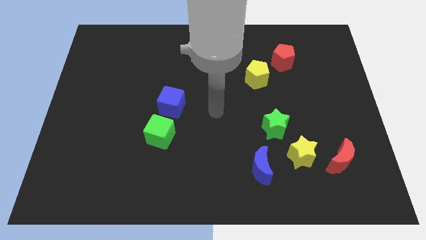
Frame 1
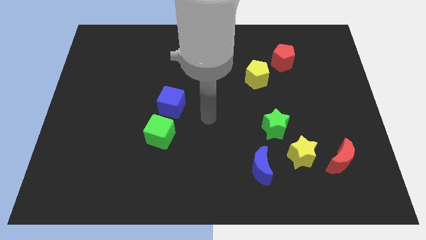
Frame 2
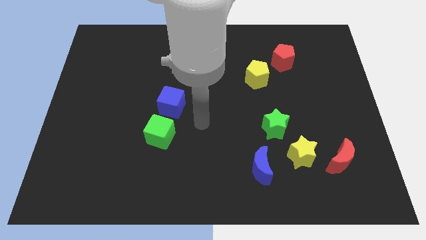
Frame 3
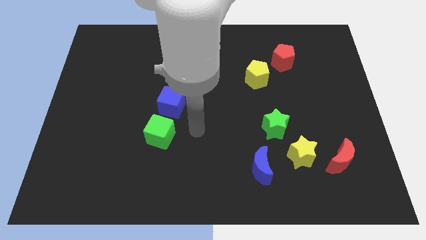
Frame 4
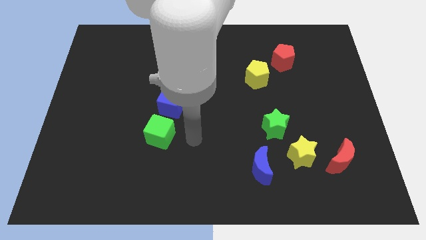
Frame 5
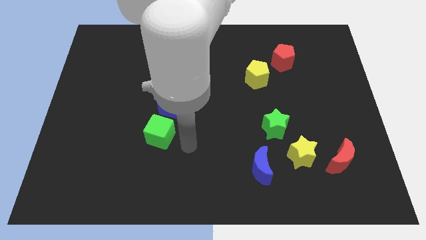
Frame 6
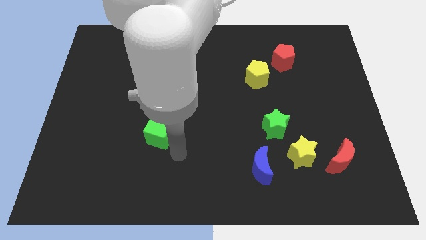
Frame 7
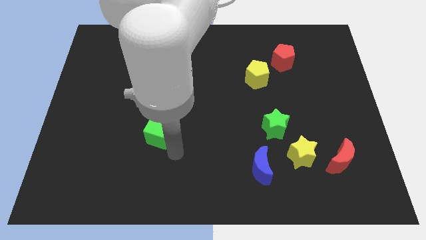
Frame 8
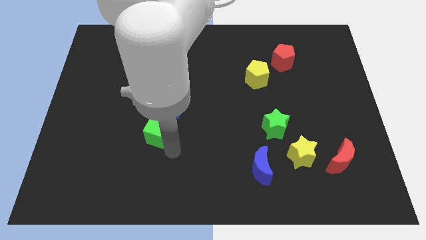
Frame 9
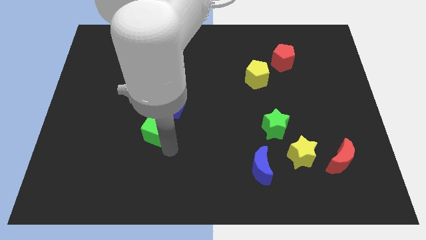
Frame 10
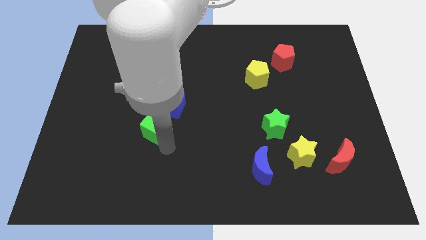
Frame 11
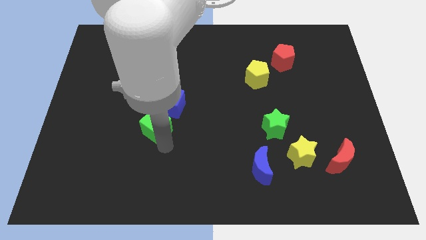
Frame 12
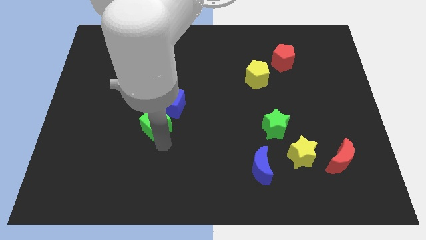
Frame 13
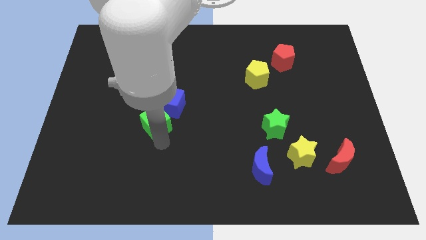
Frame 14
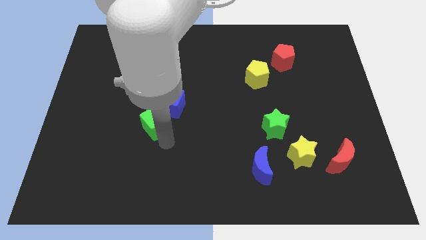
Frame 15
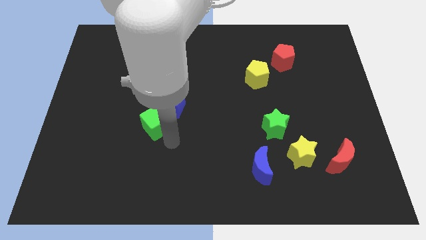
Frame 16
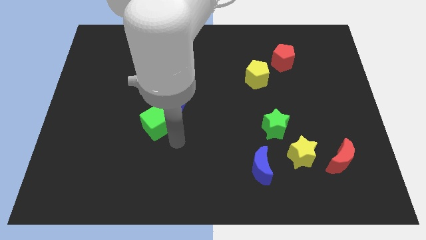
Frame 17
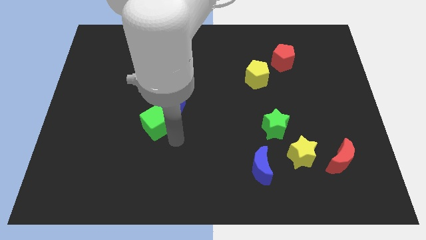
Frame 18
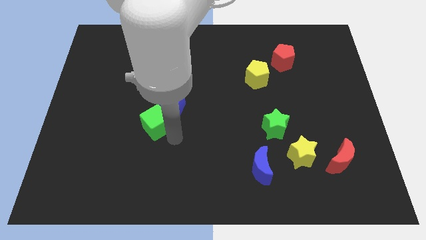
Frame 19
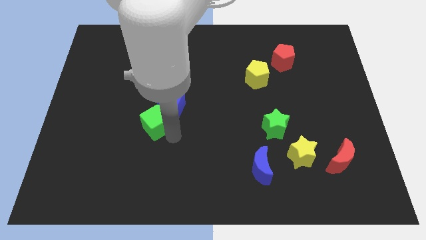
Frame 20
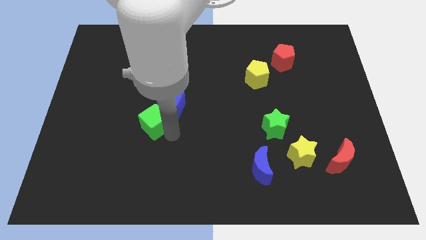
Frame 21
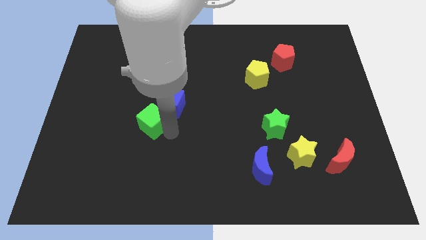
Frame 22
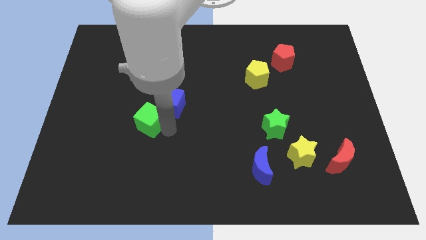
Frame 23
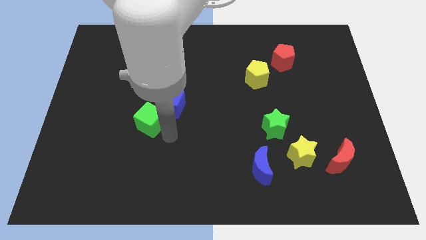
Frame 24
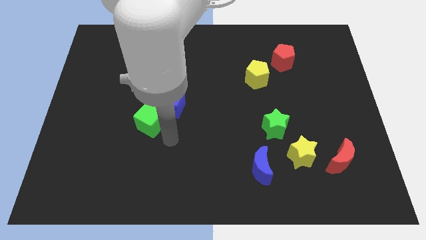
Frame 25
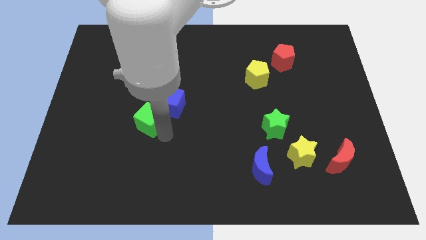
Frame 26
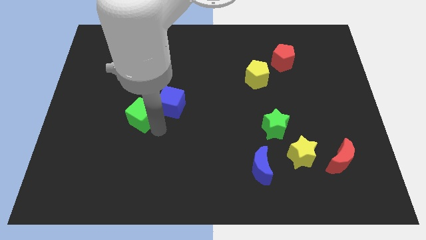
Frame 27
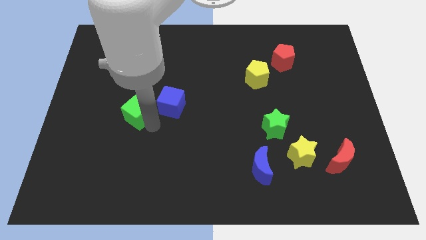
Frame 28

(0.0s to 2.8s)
slightly slide the green cube upwards and left

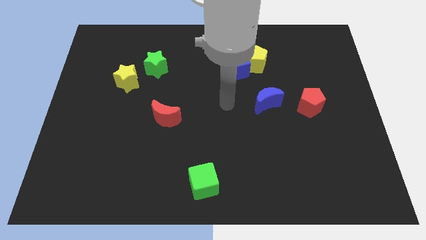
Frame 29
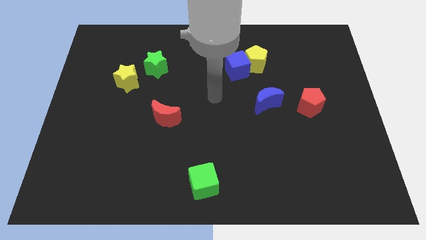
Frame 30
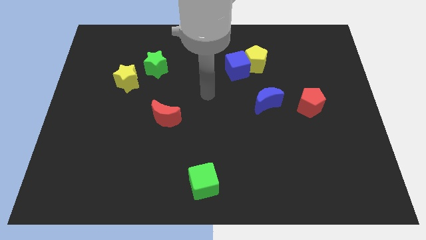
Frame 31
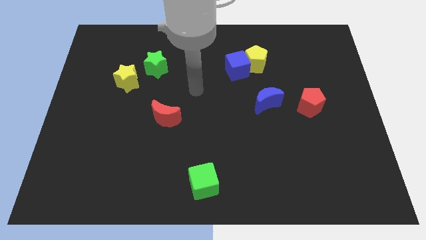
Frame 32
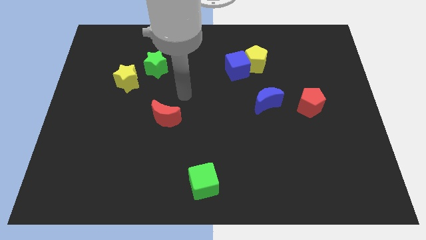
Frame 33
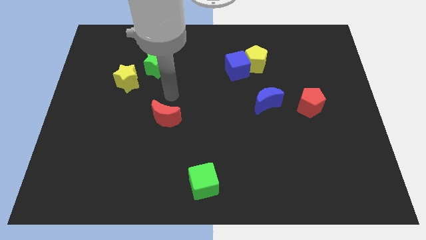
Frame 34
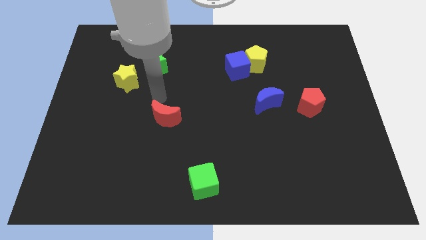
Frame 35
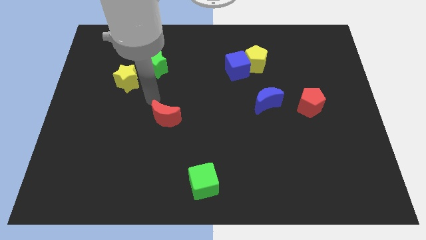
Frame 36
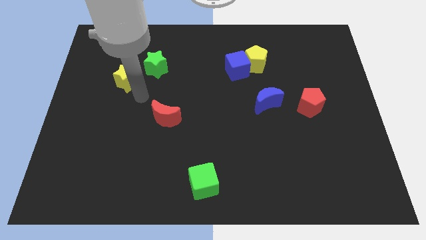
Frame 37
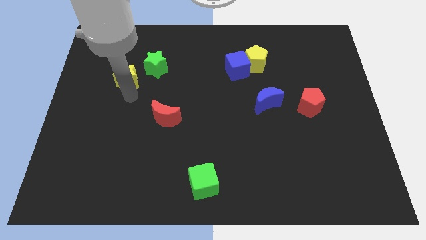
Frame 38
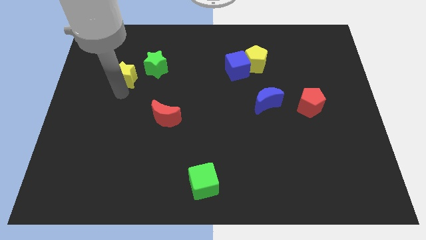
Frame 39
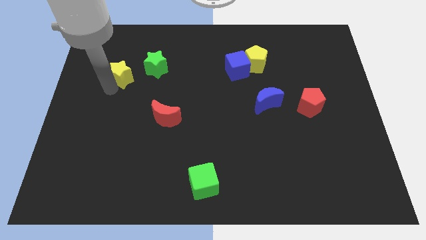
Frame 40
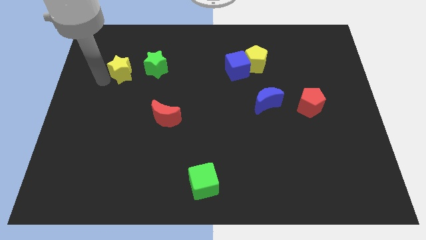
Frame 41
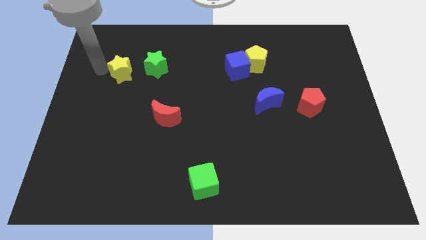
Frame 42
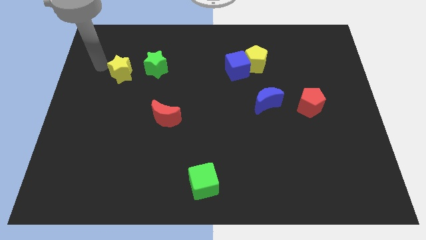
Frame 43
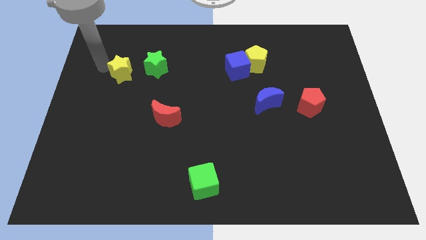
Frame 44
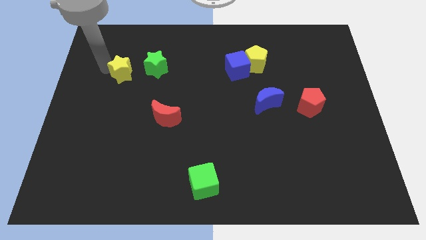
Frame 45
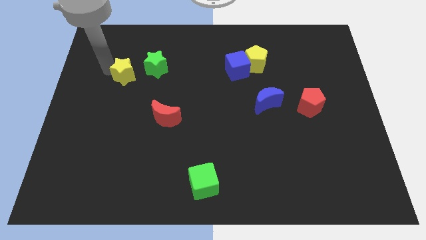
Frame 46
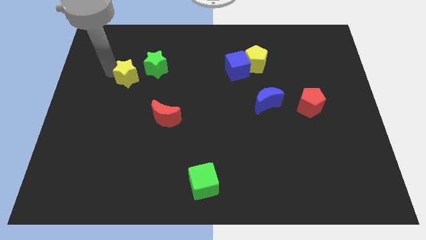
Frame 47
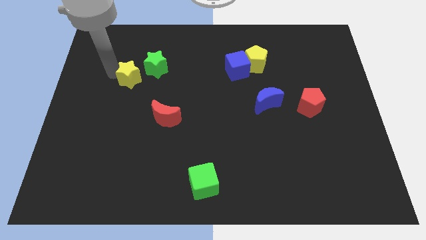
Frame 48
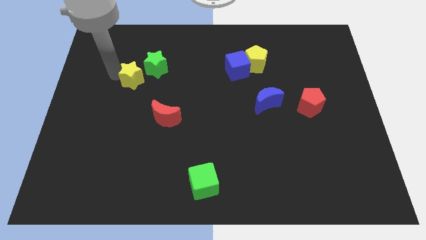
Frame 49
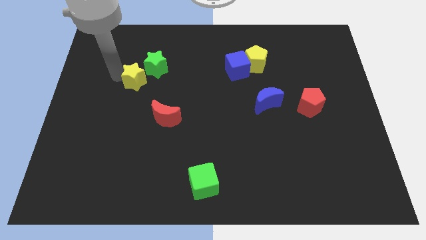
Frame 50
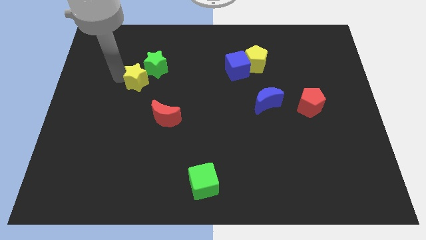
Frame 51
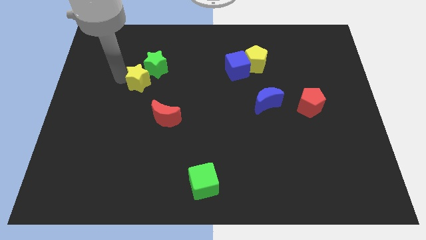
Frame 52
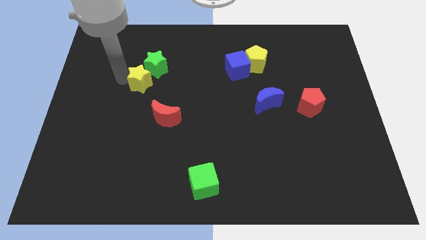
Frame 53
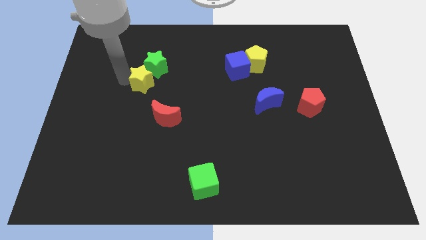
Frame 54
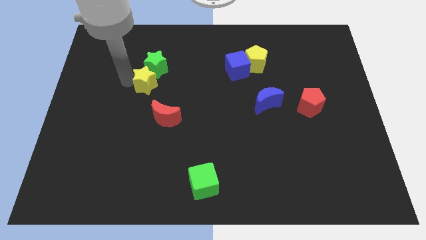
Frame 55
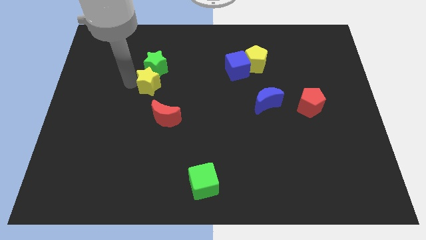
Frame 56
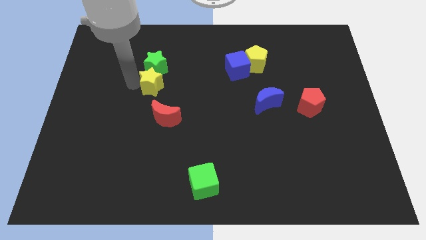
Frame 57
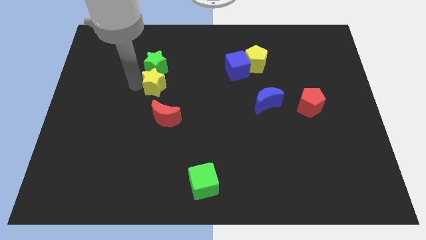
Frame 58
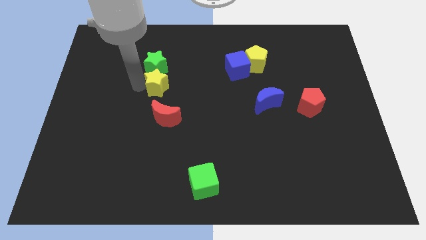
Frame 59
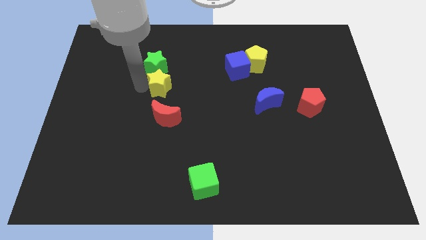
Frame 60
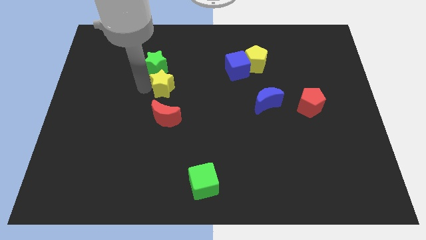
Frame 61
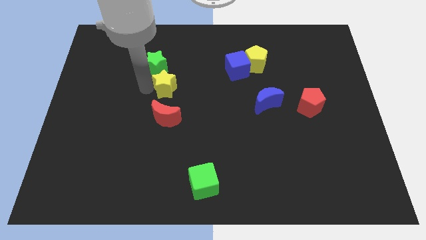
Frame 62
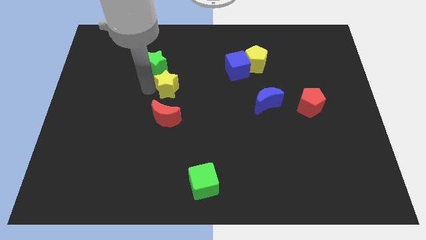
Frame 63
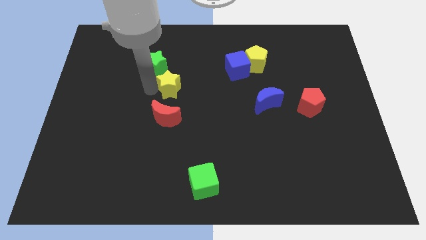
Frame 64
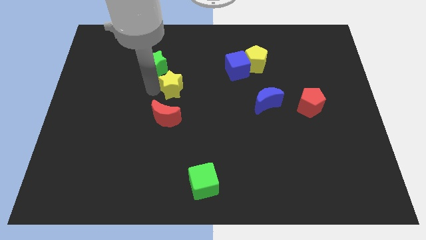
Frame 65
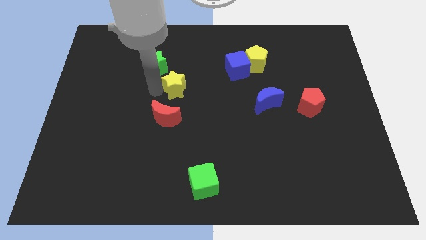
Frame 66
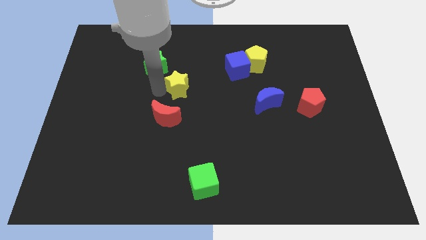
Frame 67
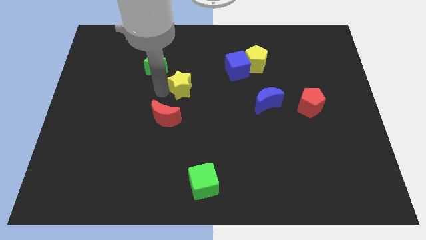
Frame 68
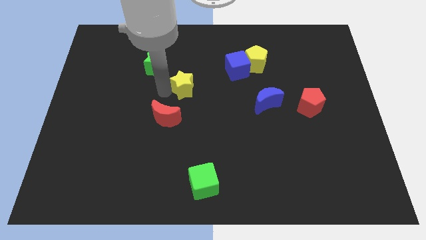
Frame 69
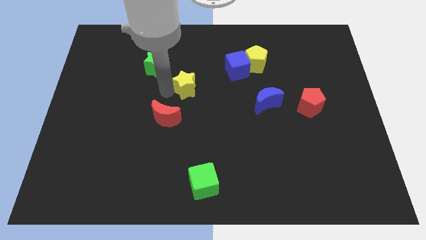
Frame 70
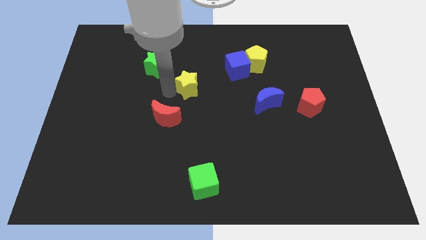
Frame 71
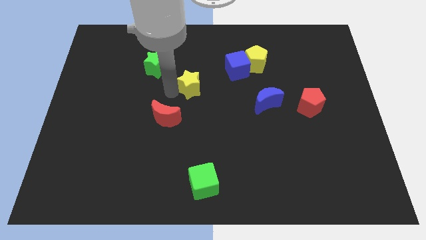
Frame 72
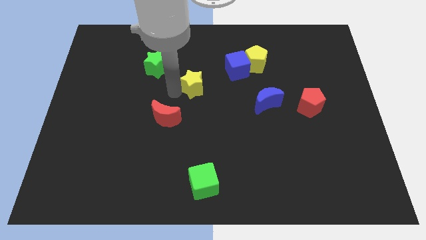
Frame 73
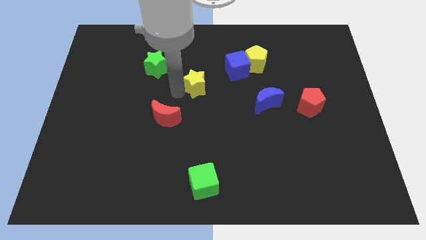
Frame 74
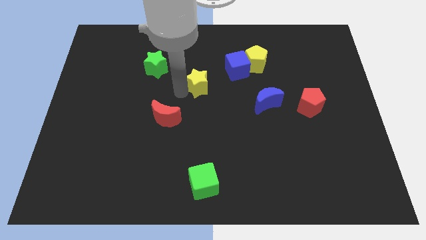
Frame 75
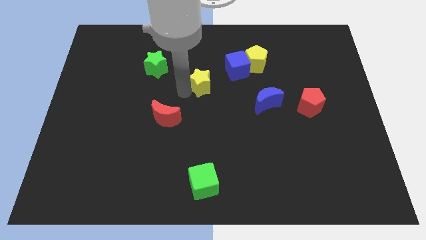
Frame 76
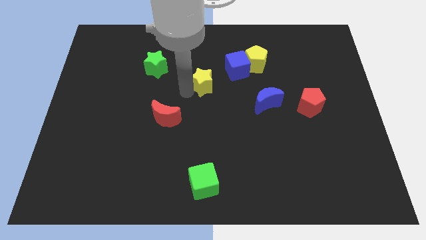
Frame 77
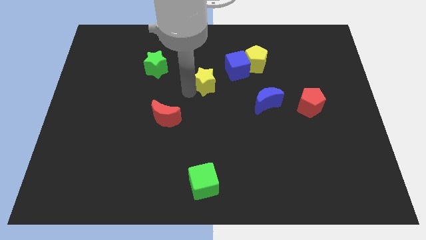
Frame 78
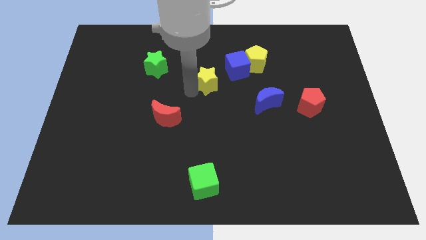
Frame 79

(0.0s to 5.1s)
move the yellow star to the right
